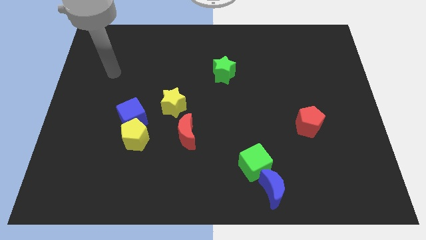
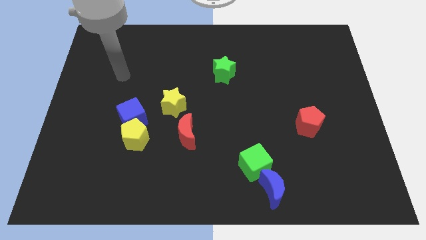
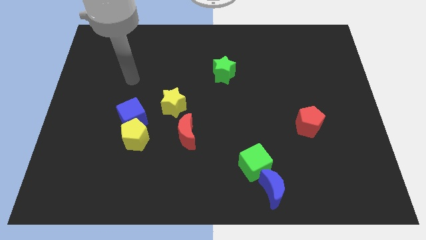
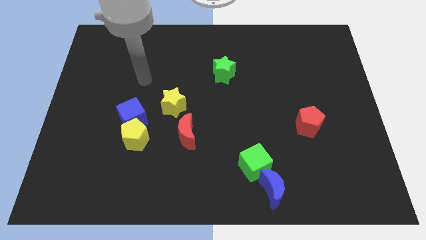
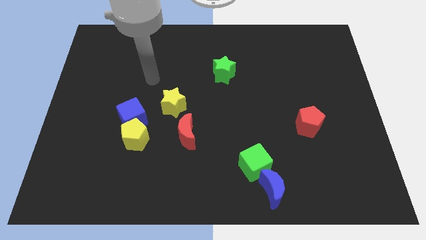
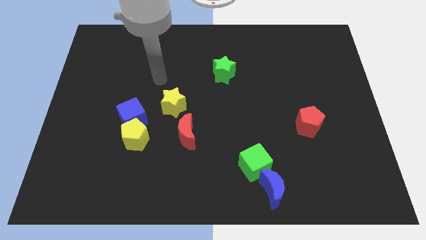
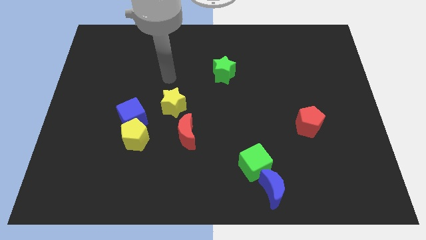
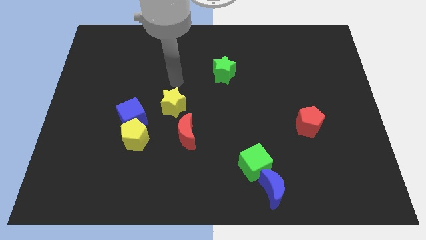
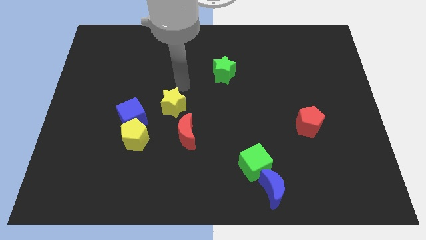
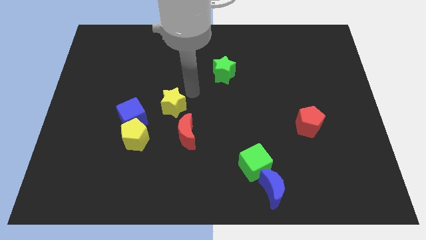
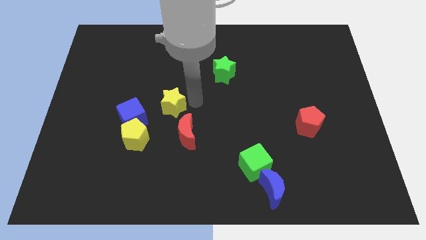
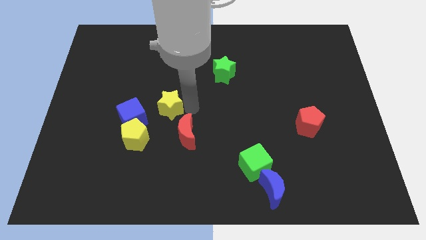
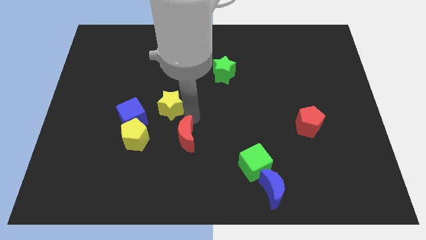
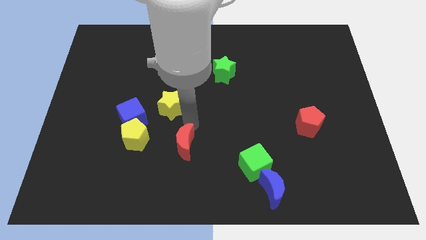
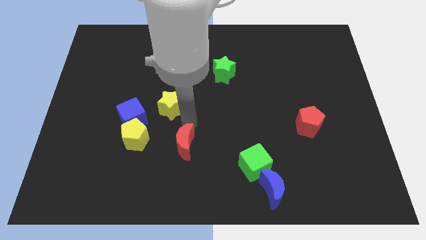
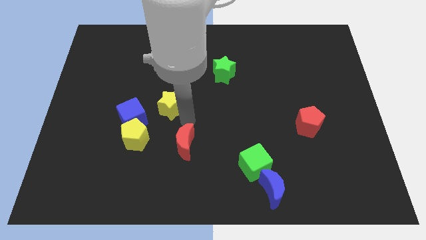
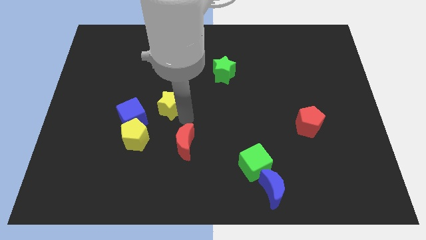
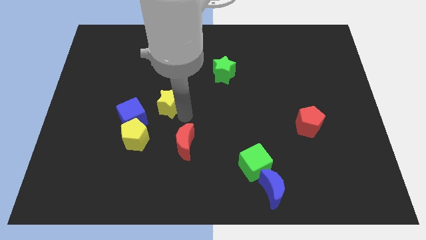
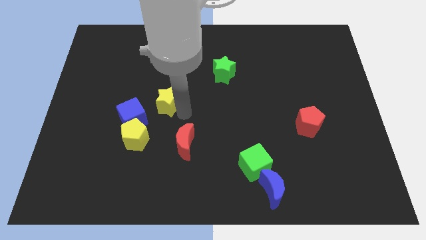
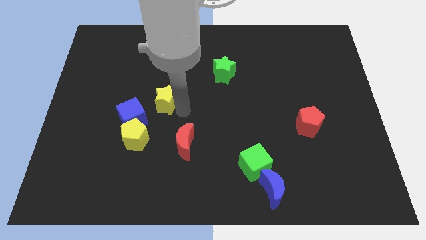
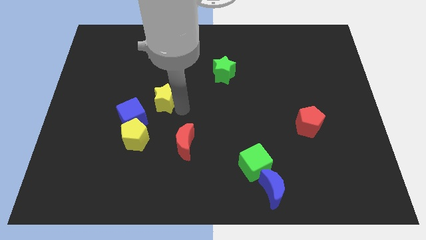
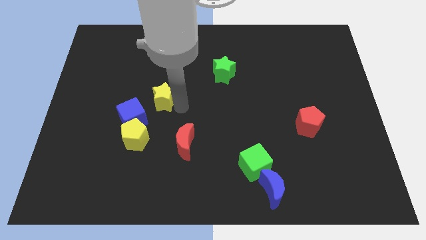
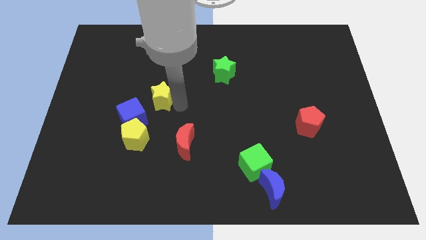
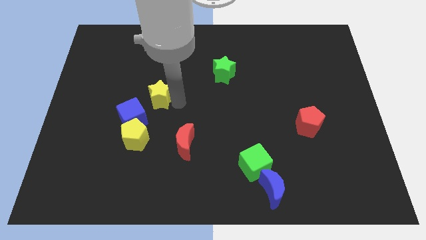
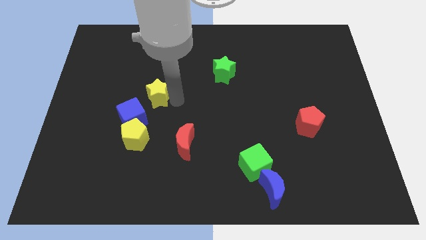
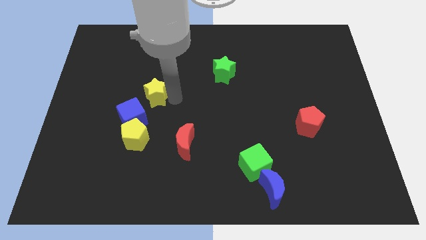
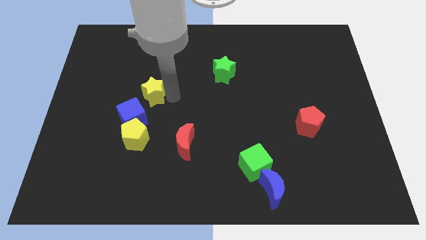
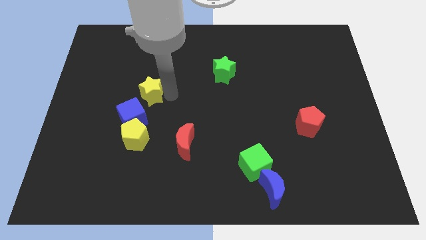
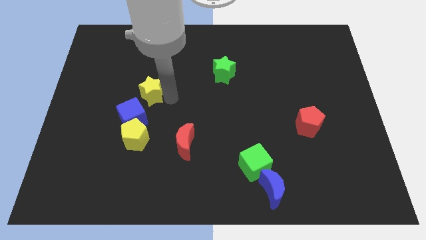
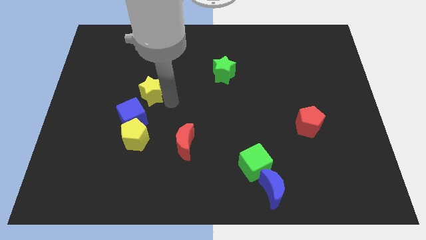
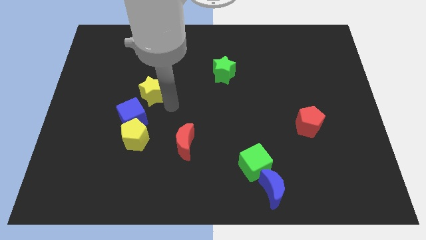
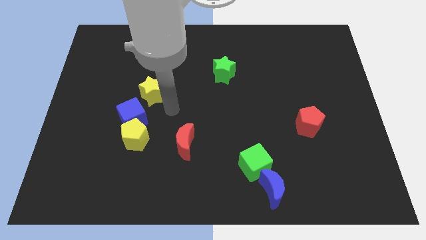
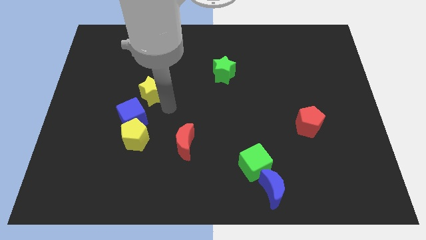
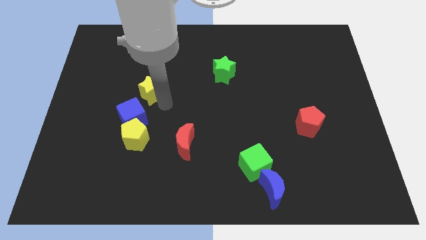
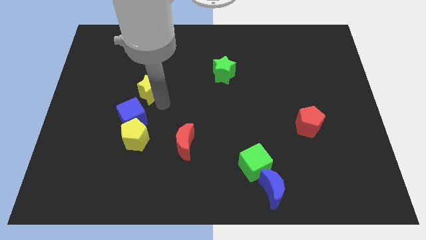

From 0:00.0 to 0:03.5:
move the yellow star upwards and then to the left a bit

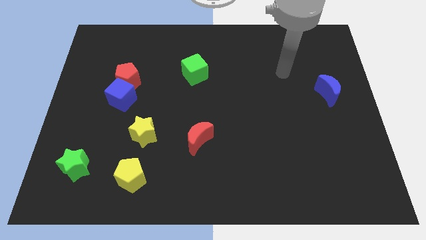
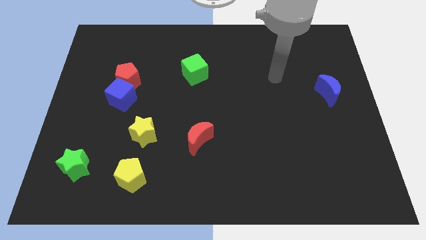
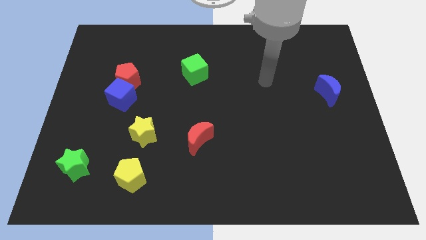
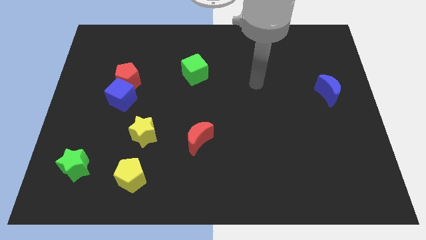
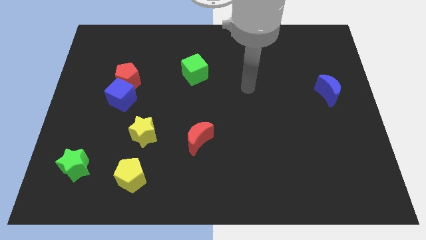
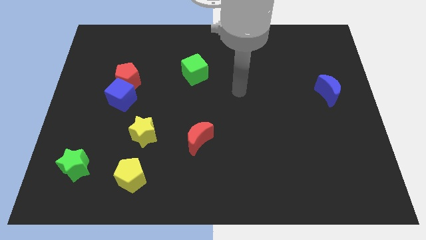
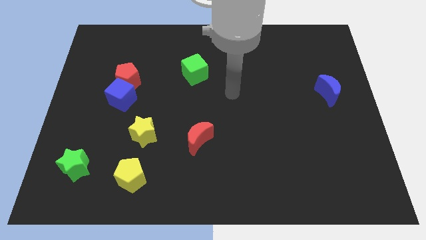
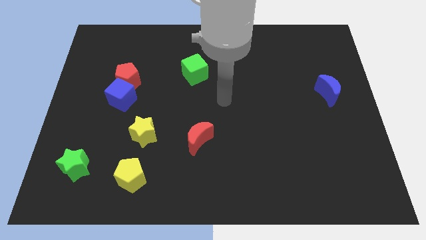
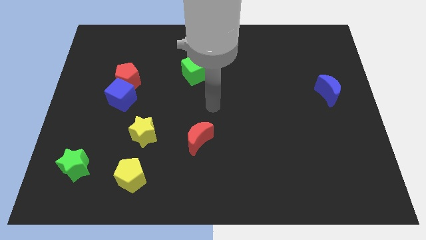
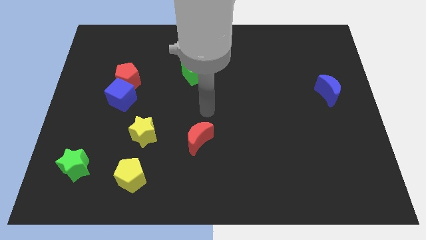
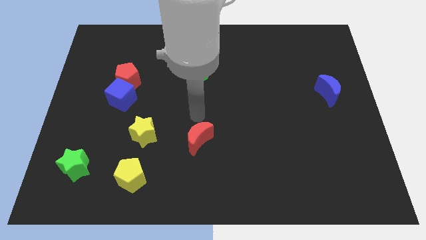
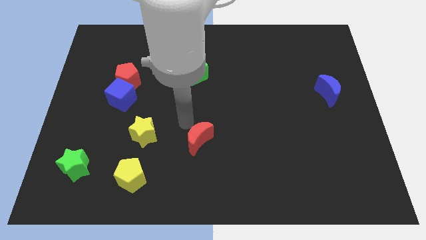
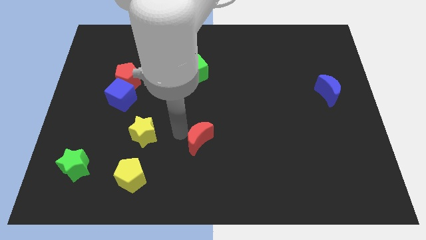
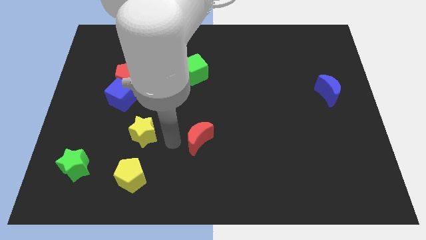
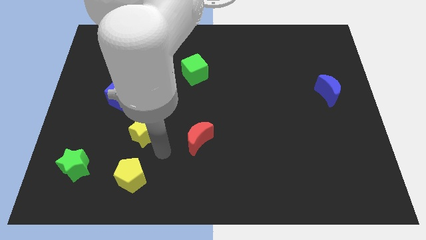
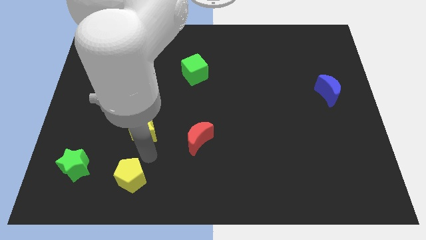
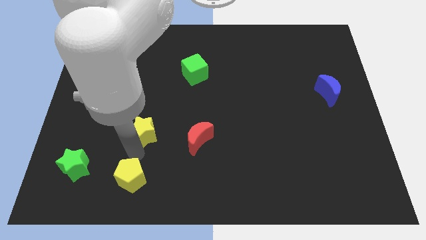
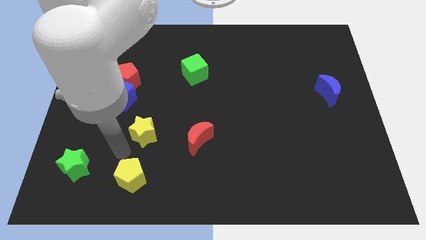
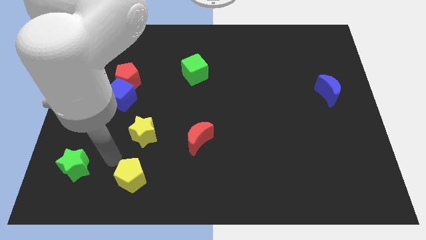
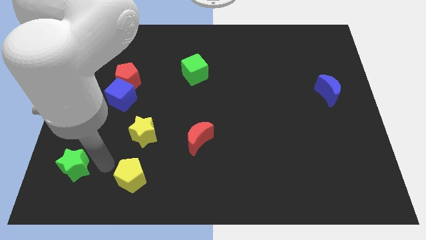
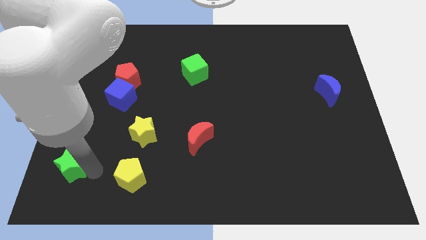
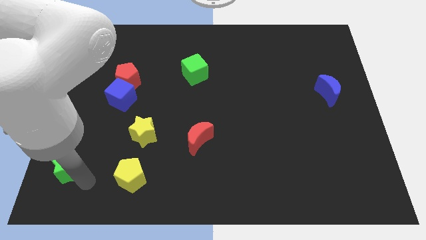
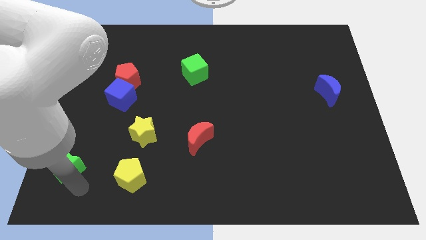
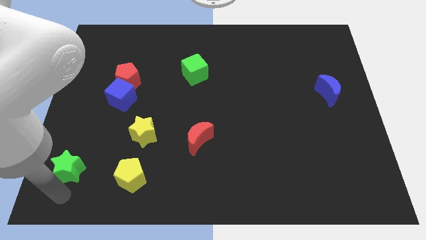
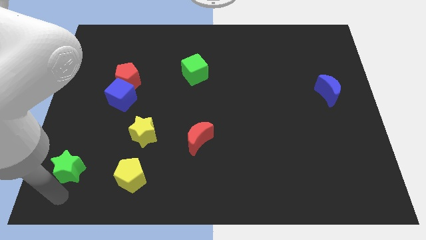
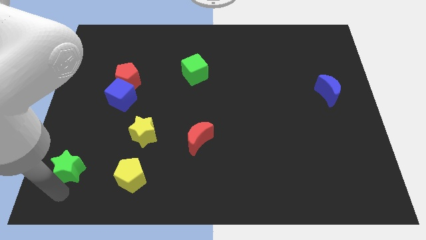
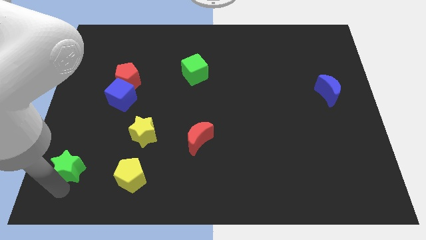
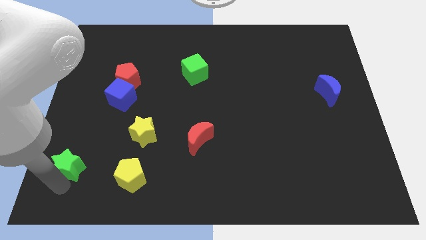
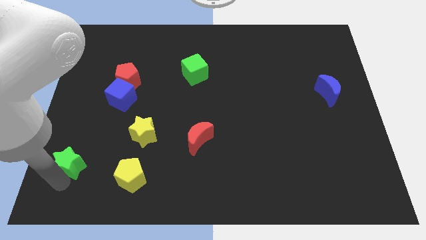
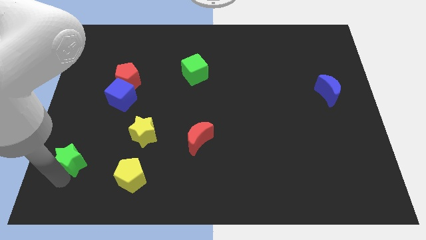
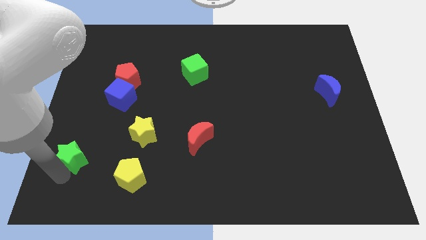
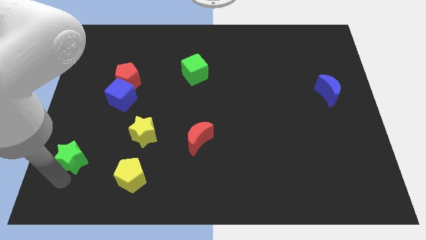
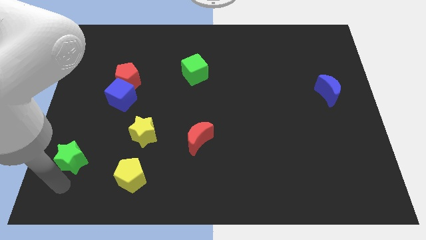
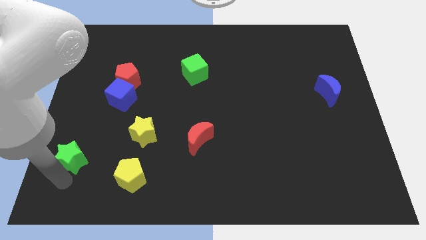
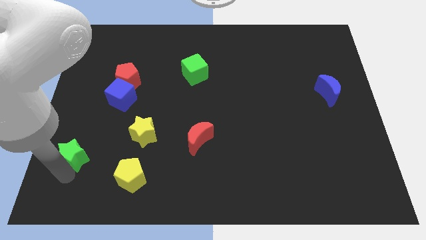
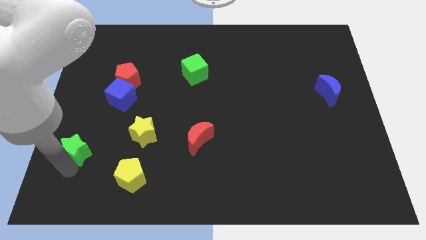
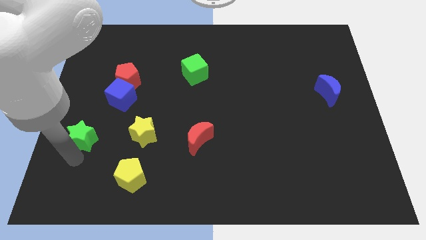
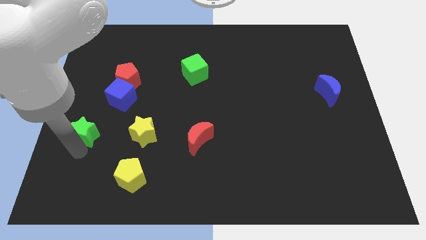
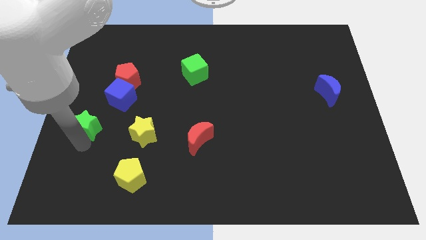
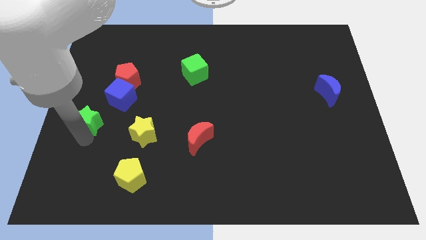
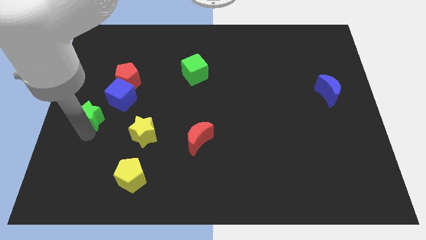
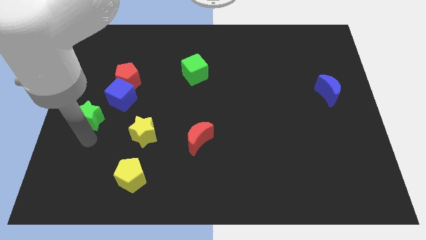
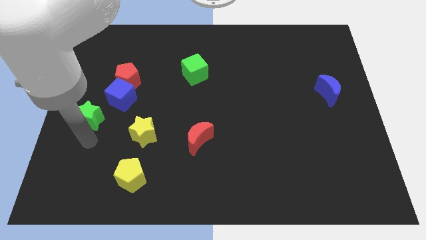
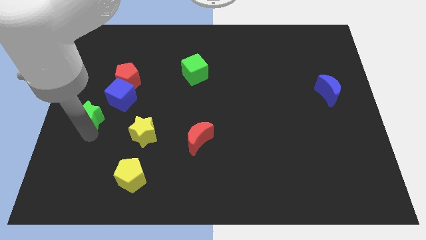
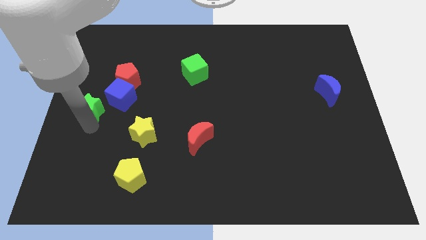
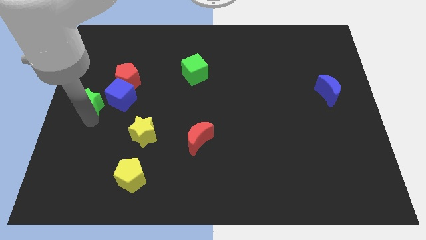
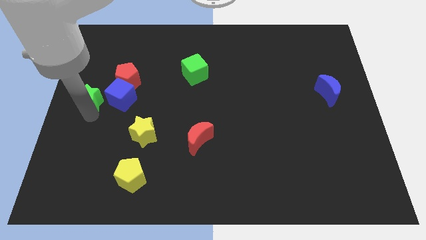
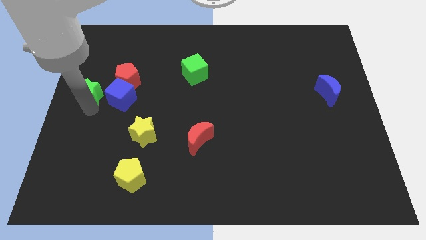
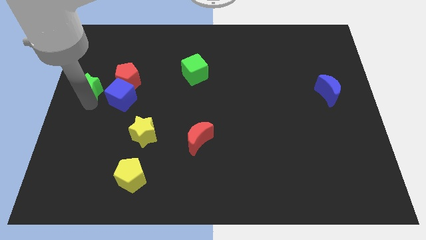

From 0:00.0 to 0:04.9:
slide the green star up
